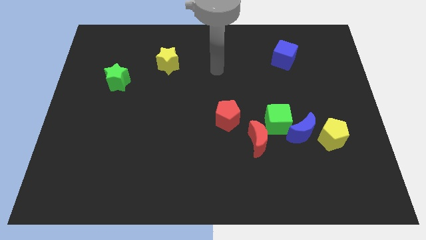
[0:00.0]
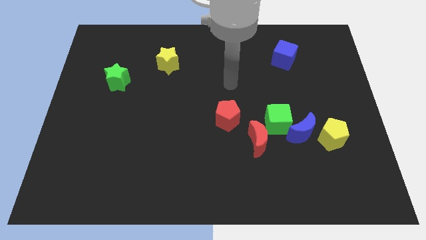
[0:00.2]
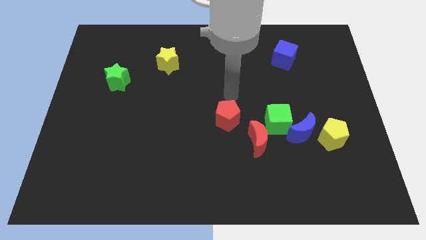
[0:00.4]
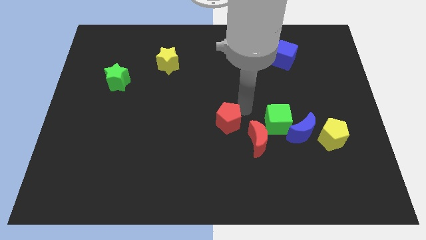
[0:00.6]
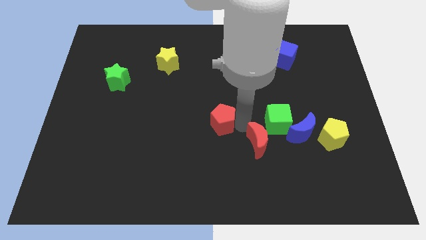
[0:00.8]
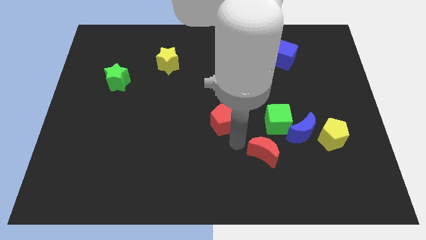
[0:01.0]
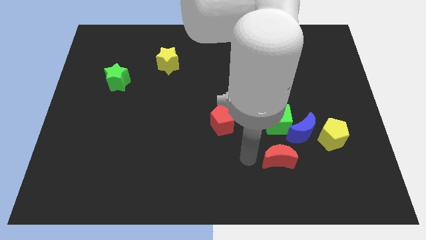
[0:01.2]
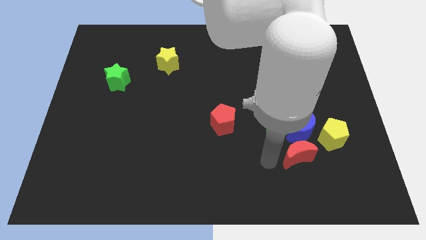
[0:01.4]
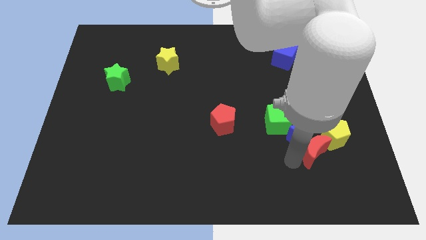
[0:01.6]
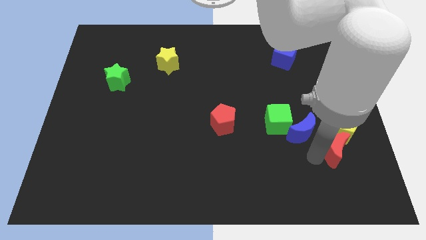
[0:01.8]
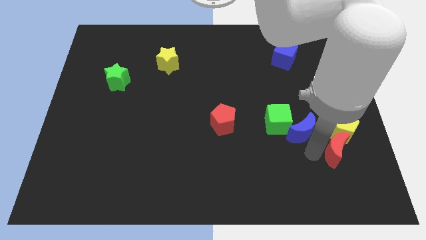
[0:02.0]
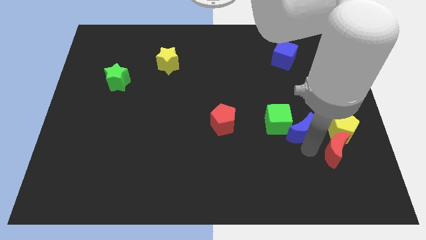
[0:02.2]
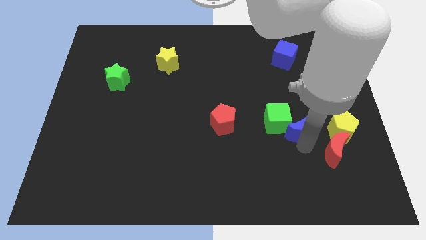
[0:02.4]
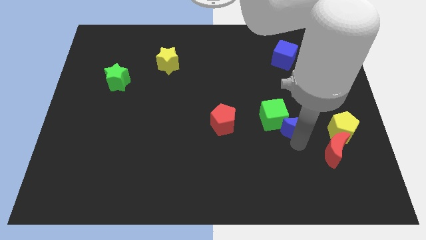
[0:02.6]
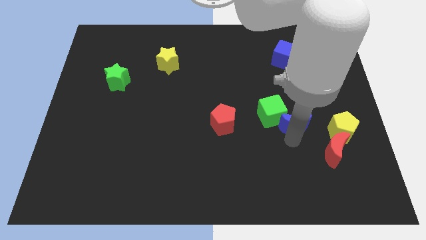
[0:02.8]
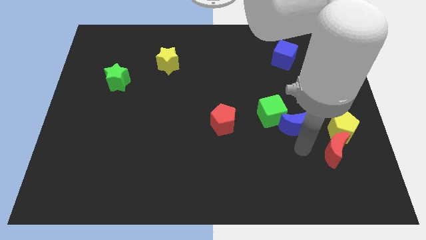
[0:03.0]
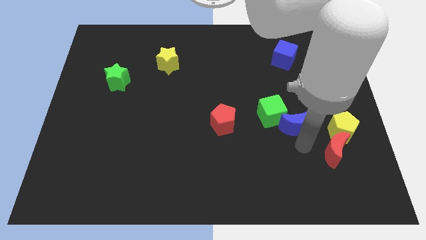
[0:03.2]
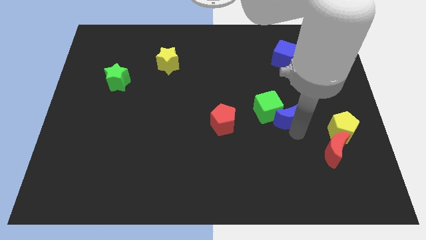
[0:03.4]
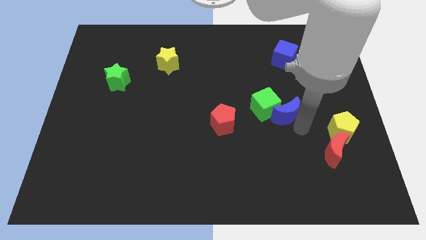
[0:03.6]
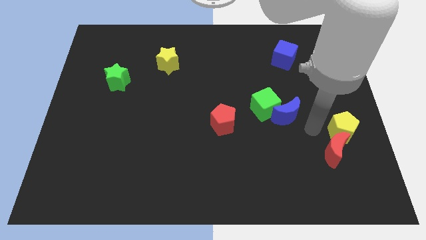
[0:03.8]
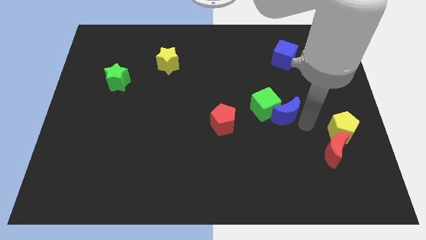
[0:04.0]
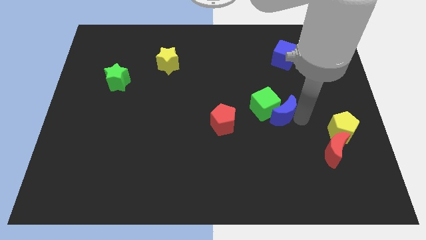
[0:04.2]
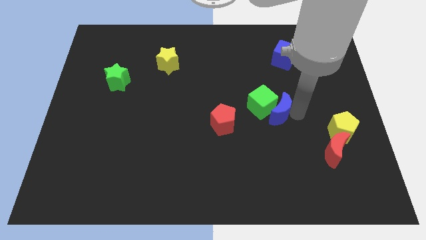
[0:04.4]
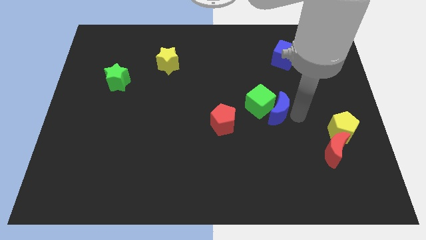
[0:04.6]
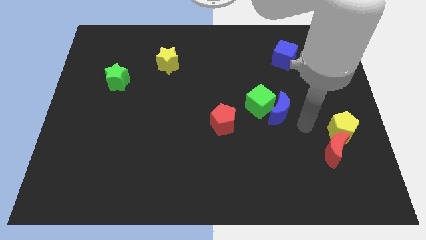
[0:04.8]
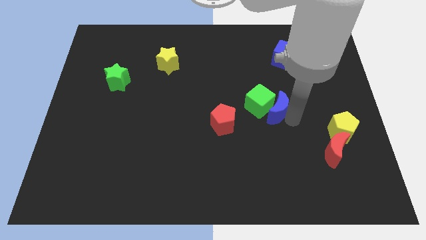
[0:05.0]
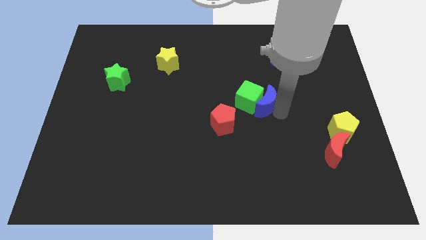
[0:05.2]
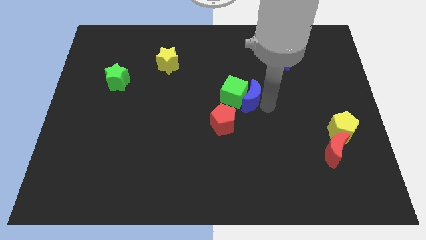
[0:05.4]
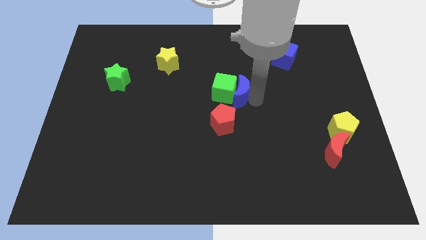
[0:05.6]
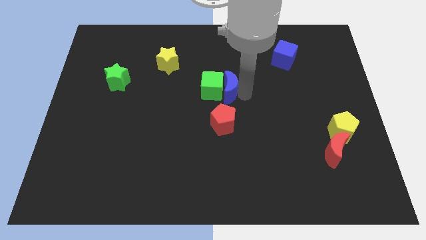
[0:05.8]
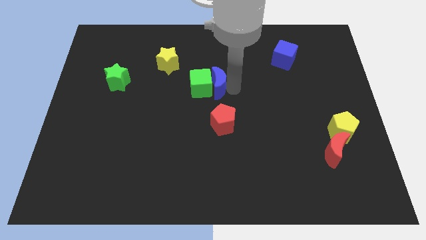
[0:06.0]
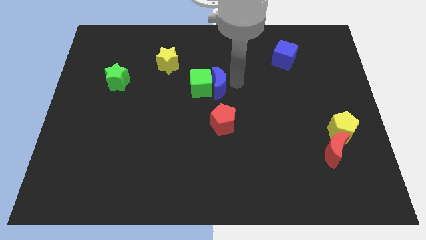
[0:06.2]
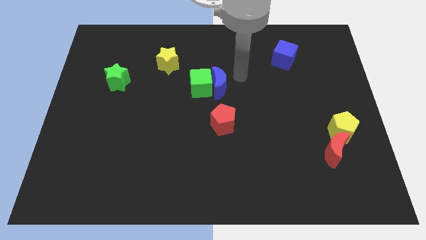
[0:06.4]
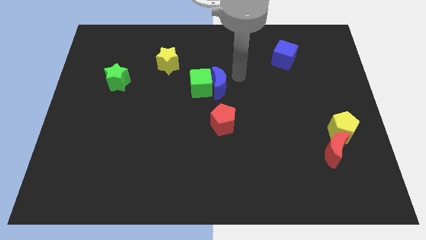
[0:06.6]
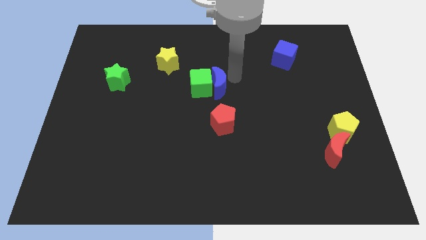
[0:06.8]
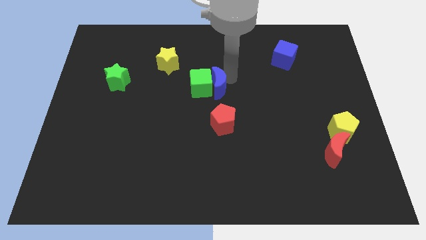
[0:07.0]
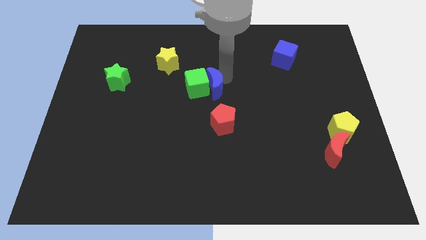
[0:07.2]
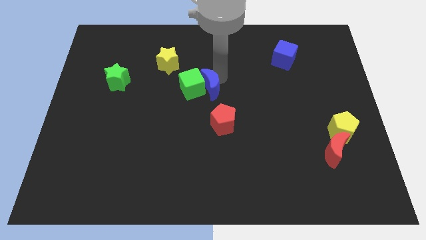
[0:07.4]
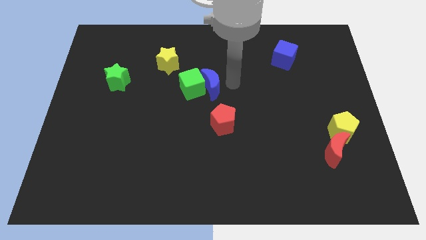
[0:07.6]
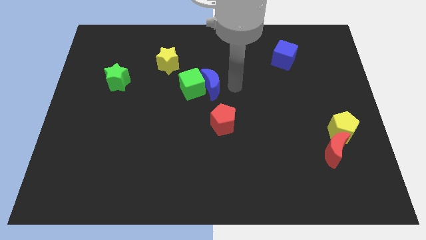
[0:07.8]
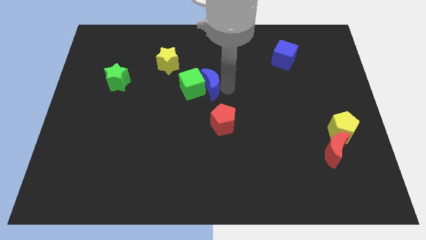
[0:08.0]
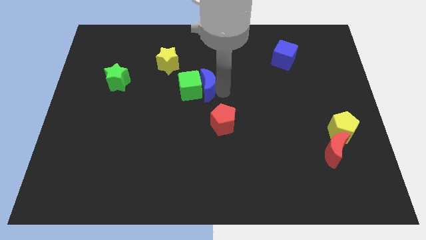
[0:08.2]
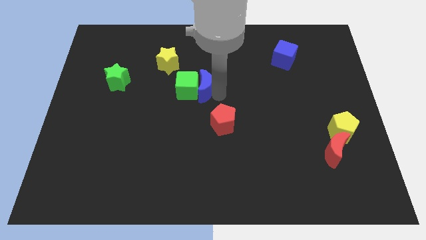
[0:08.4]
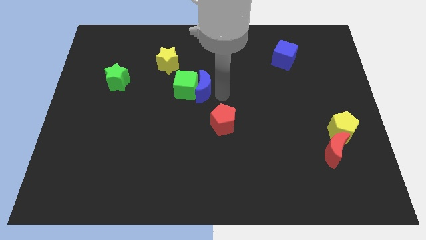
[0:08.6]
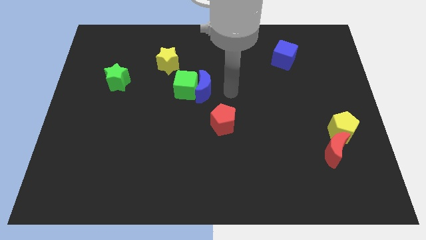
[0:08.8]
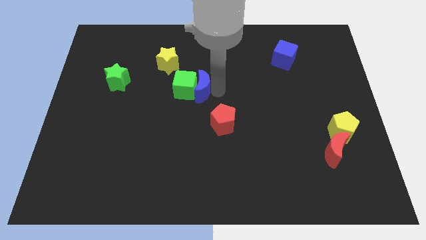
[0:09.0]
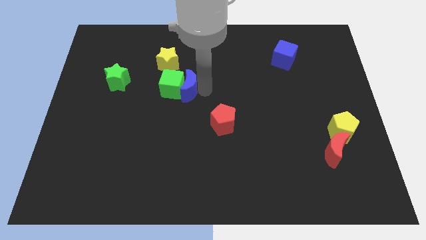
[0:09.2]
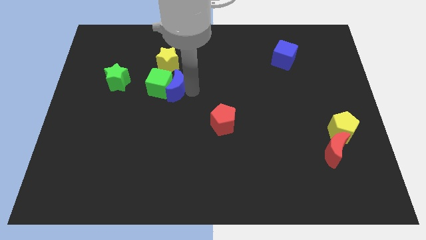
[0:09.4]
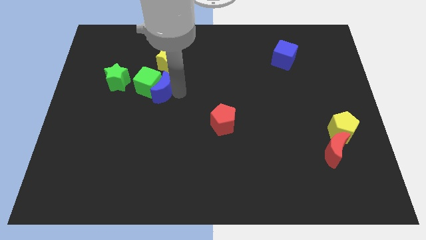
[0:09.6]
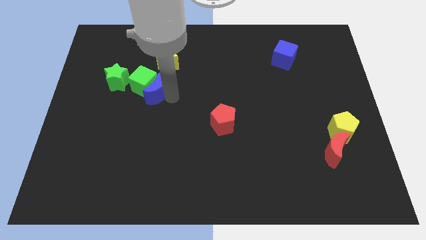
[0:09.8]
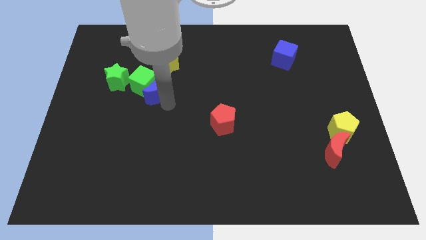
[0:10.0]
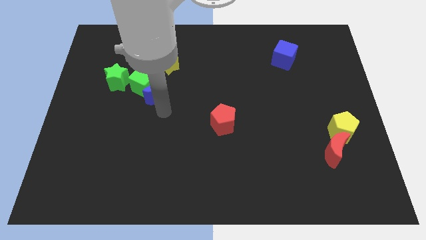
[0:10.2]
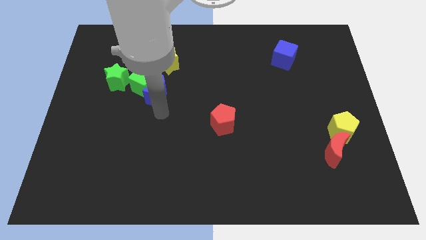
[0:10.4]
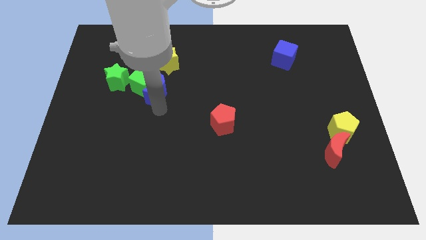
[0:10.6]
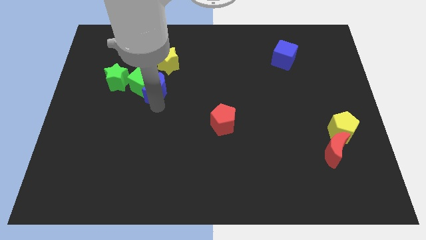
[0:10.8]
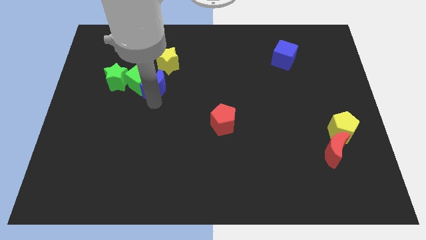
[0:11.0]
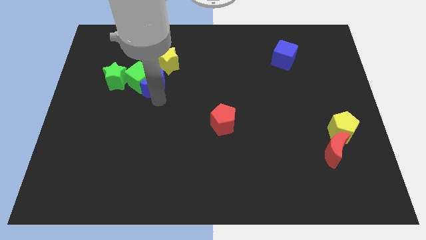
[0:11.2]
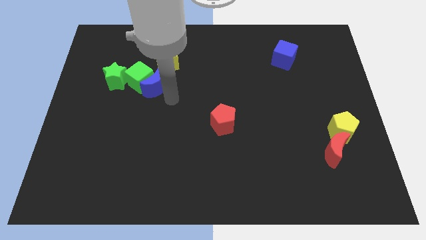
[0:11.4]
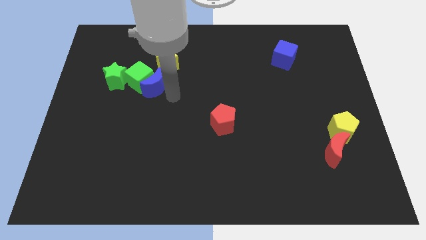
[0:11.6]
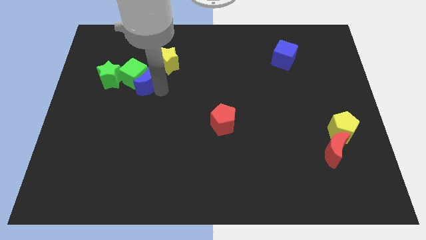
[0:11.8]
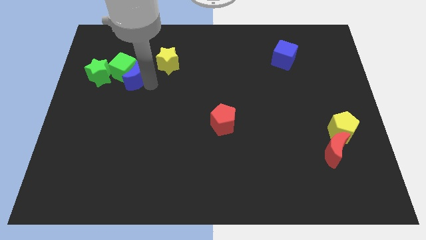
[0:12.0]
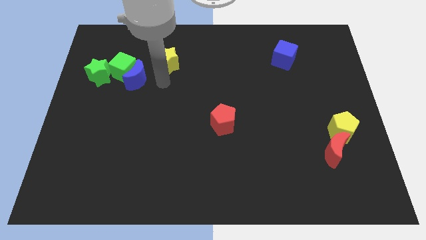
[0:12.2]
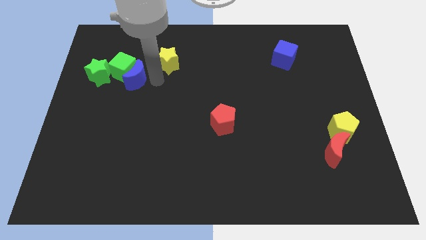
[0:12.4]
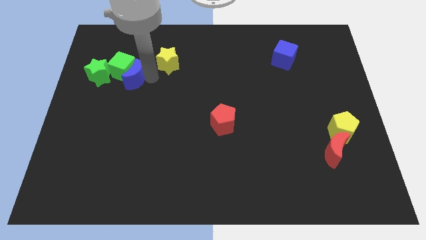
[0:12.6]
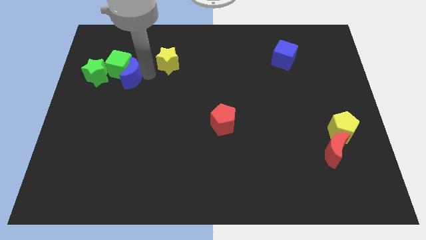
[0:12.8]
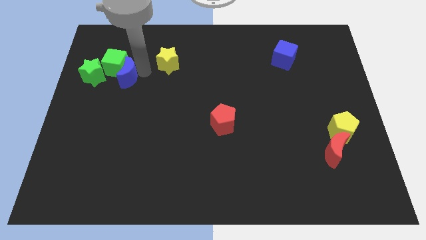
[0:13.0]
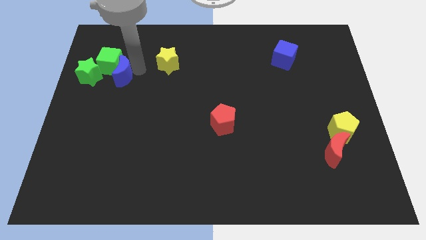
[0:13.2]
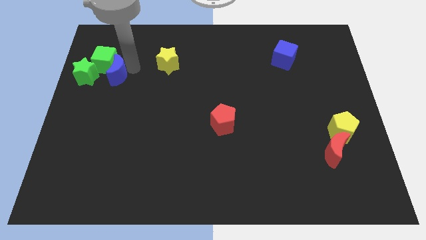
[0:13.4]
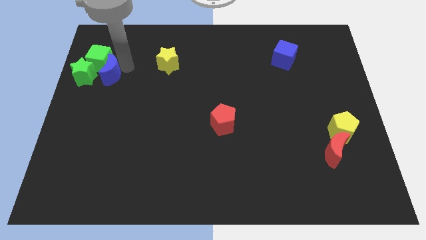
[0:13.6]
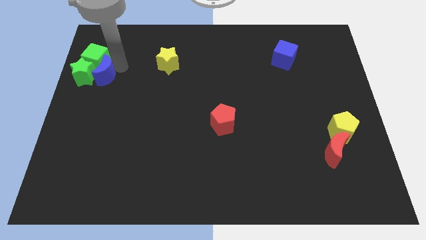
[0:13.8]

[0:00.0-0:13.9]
push the blue moon towards the green star

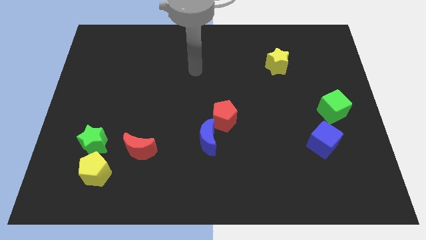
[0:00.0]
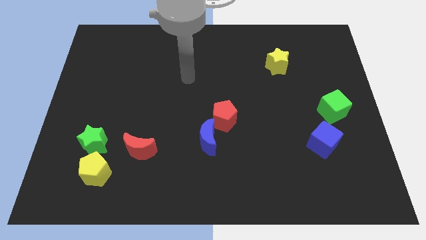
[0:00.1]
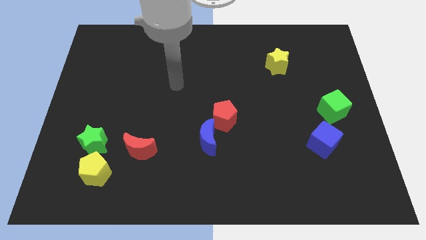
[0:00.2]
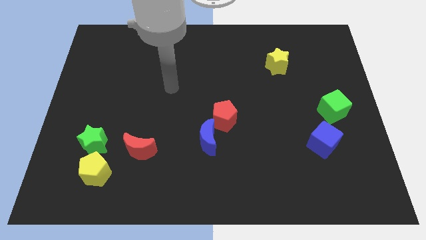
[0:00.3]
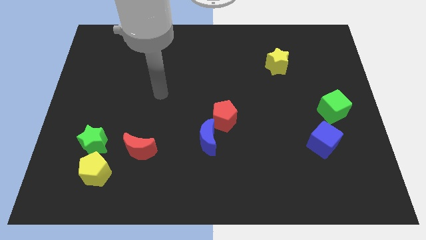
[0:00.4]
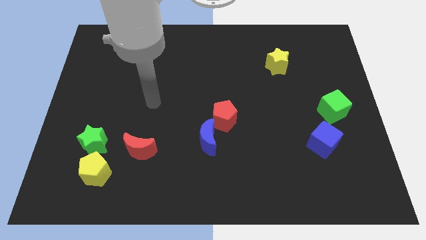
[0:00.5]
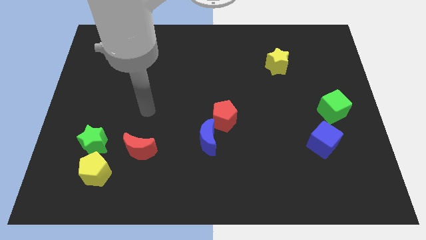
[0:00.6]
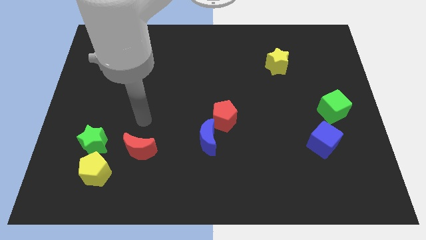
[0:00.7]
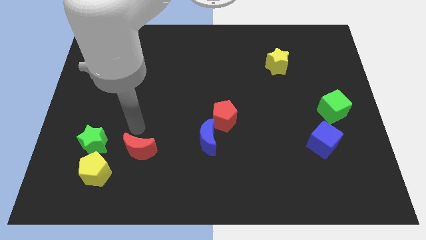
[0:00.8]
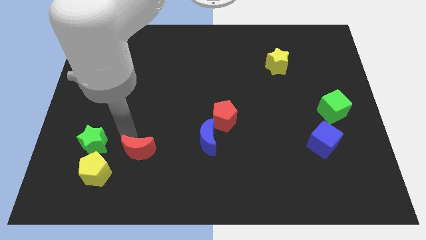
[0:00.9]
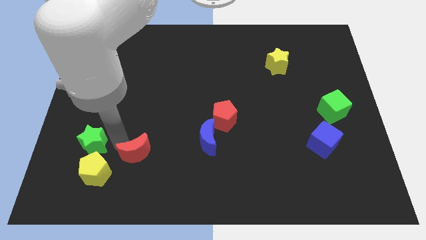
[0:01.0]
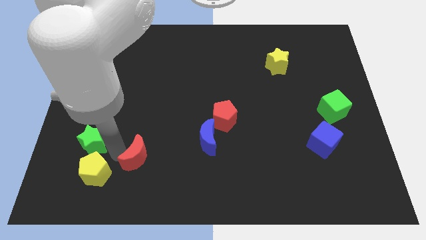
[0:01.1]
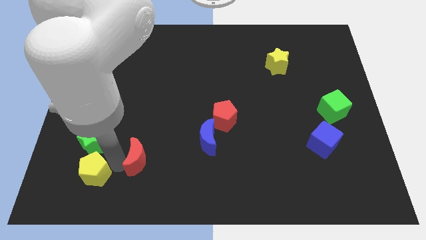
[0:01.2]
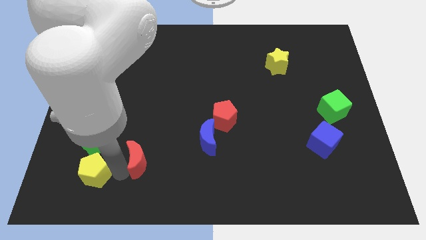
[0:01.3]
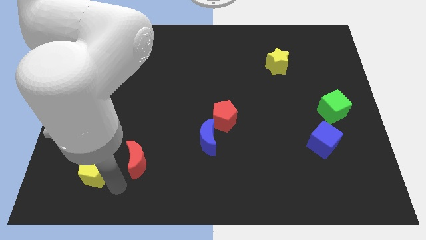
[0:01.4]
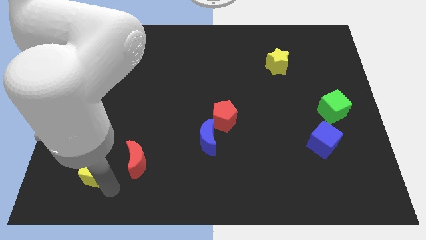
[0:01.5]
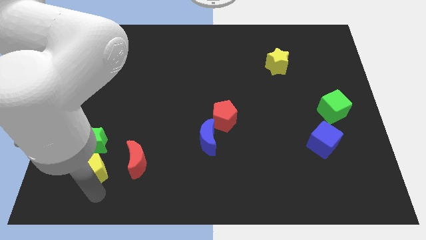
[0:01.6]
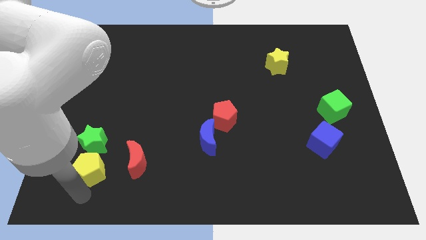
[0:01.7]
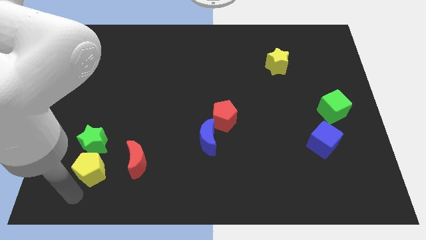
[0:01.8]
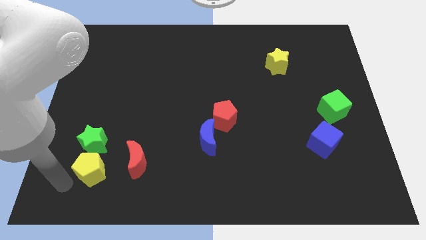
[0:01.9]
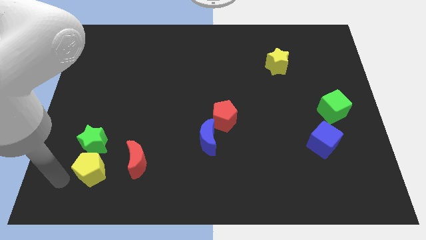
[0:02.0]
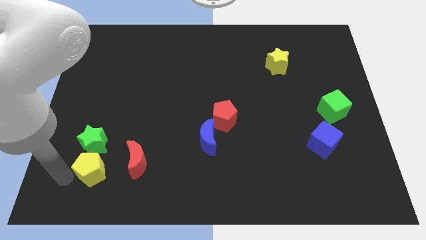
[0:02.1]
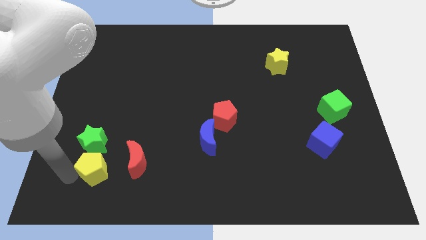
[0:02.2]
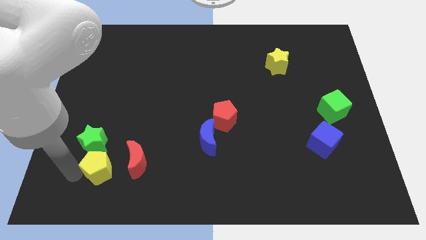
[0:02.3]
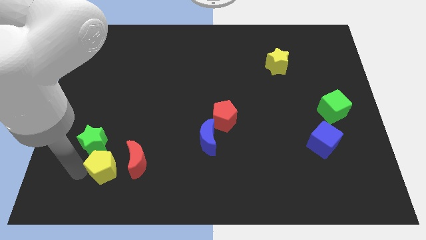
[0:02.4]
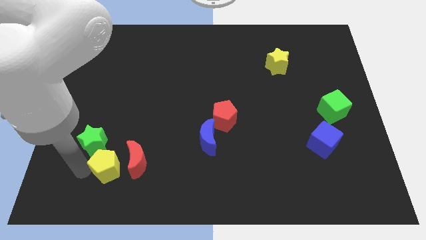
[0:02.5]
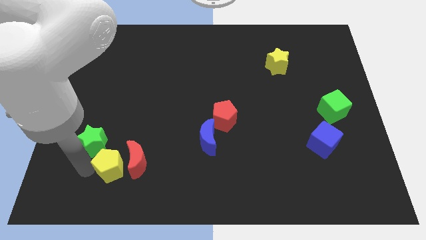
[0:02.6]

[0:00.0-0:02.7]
slide the yellow pentagon towards the red moon
